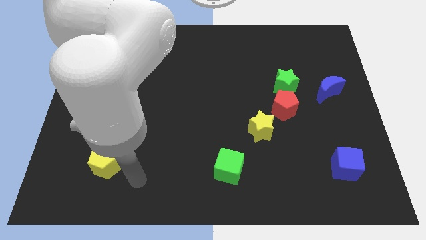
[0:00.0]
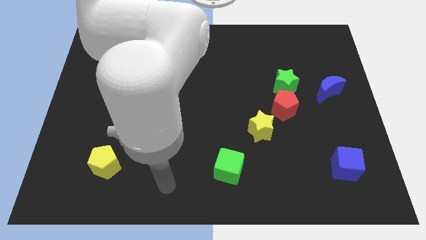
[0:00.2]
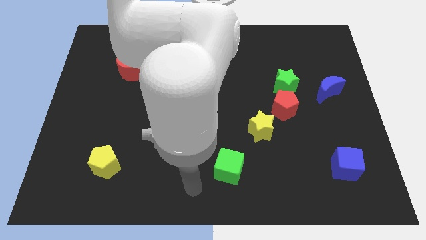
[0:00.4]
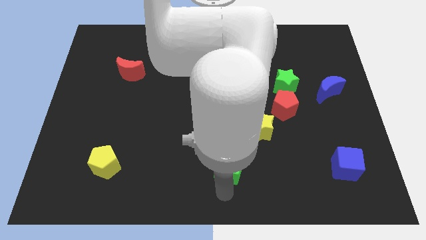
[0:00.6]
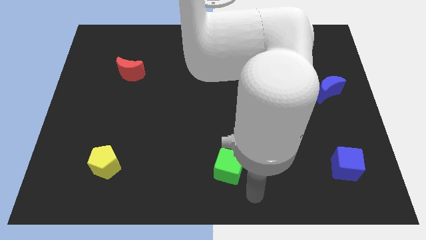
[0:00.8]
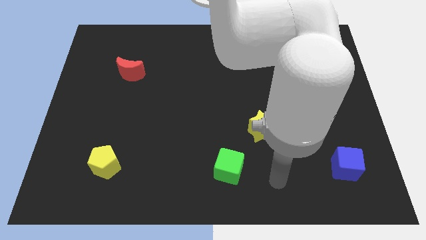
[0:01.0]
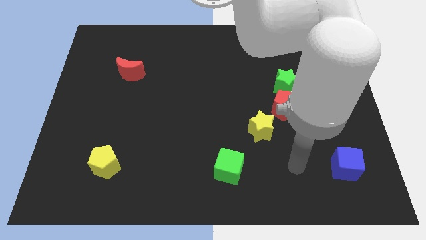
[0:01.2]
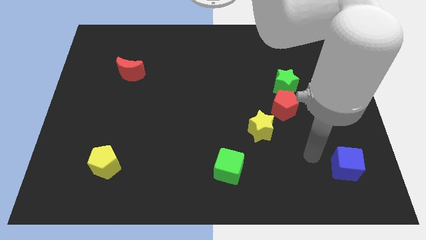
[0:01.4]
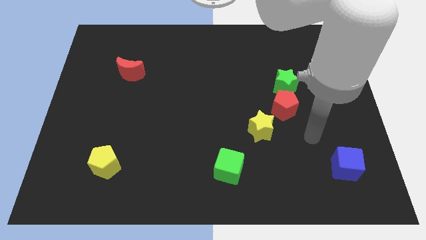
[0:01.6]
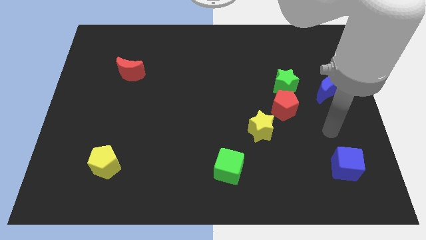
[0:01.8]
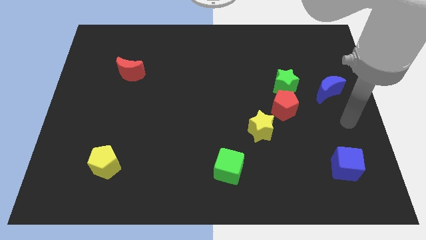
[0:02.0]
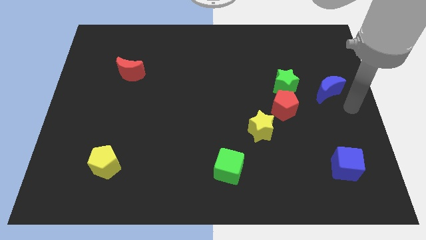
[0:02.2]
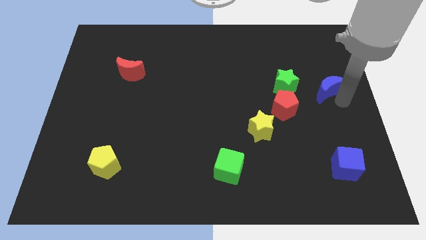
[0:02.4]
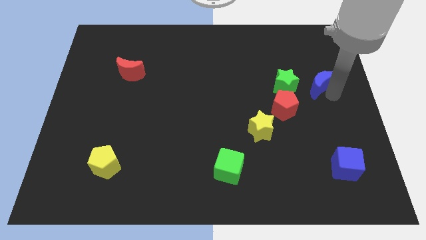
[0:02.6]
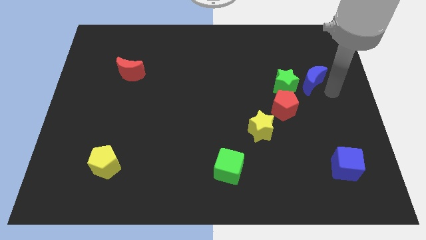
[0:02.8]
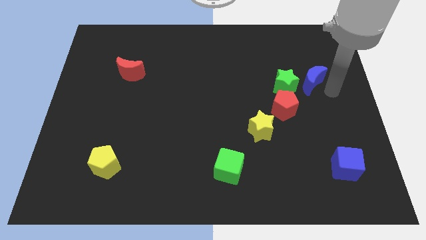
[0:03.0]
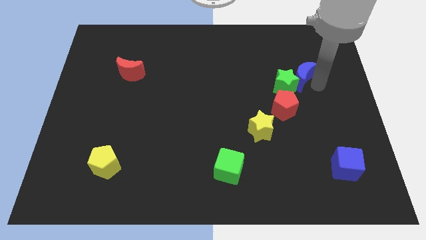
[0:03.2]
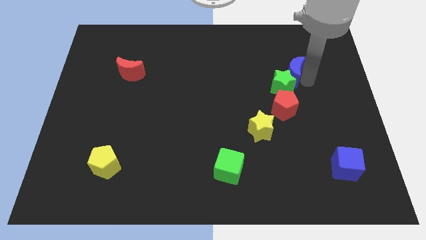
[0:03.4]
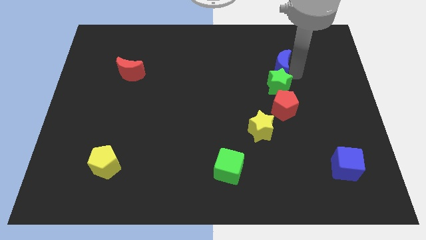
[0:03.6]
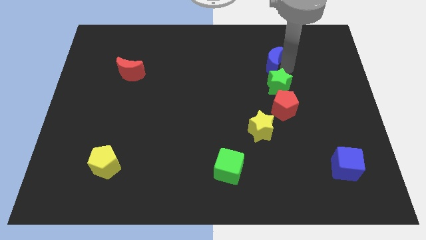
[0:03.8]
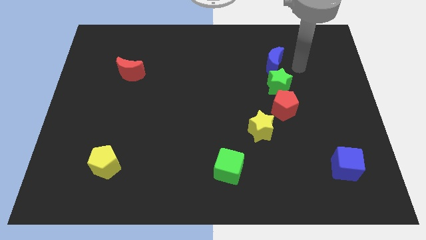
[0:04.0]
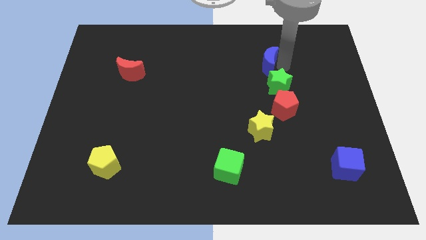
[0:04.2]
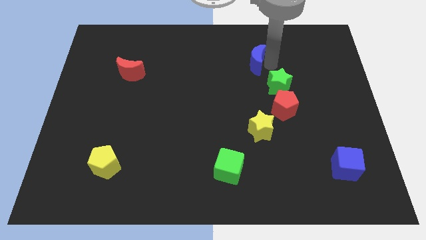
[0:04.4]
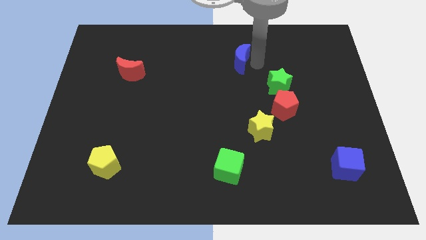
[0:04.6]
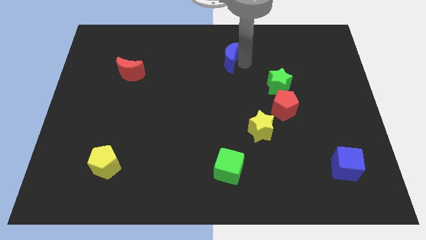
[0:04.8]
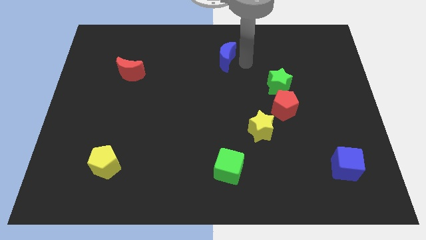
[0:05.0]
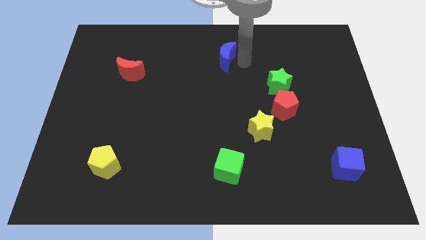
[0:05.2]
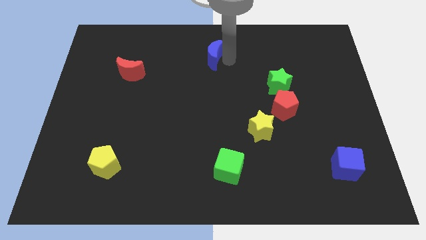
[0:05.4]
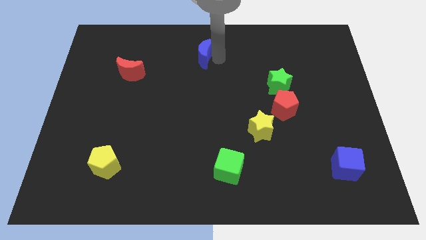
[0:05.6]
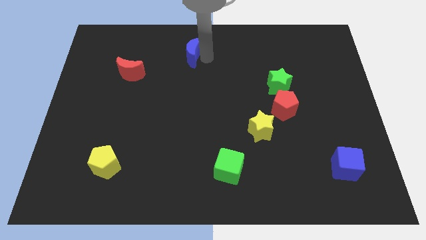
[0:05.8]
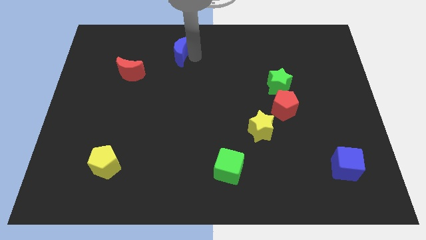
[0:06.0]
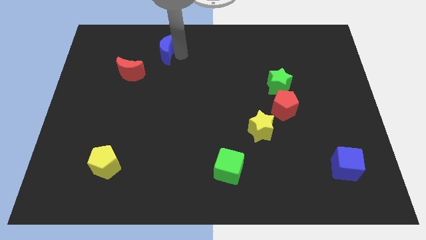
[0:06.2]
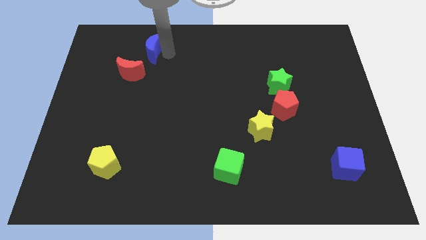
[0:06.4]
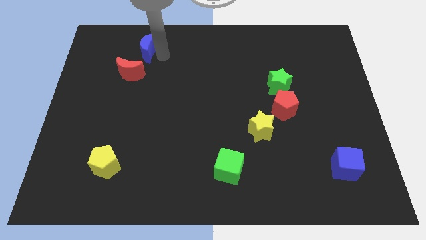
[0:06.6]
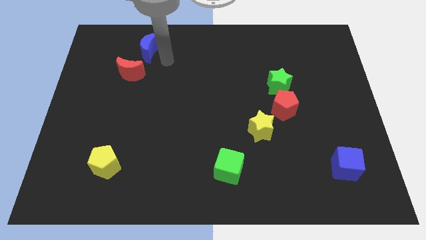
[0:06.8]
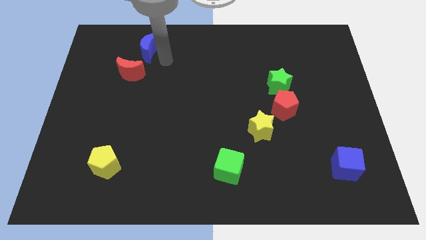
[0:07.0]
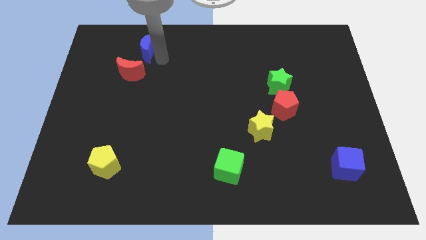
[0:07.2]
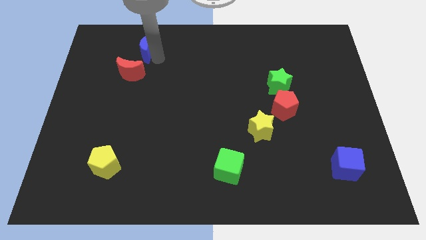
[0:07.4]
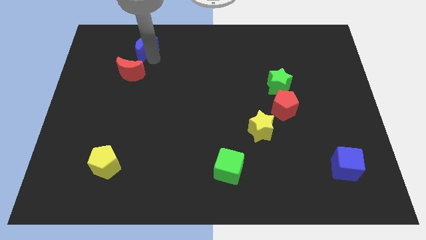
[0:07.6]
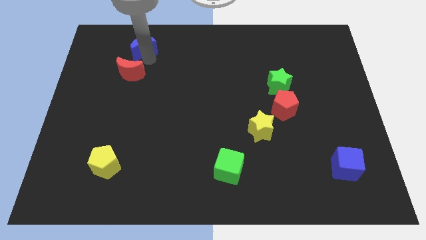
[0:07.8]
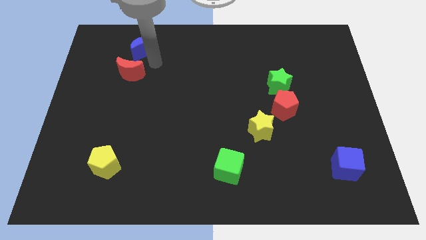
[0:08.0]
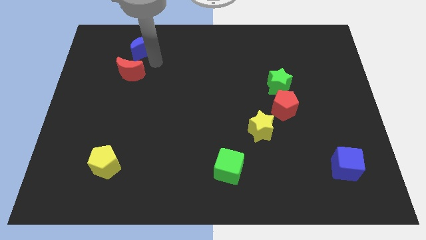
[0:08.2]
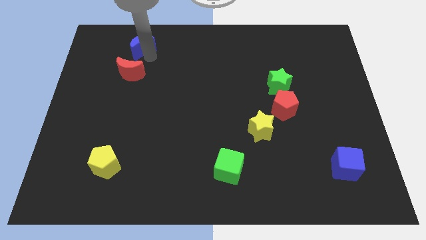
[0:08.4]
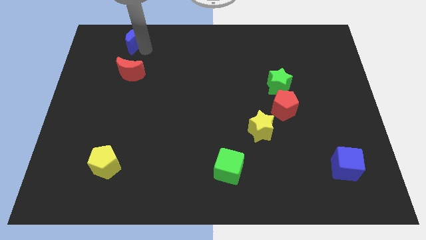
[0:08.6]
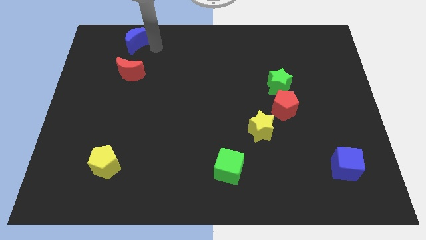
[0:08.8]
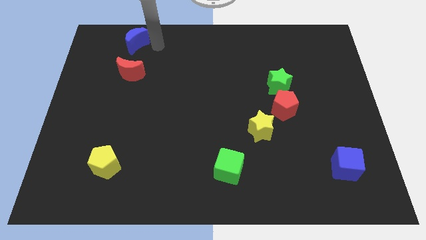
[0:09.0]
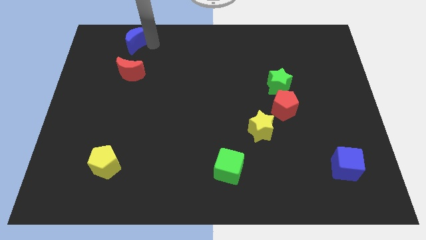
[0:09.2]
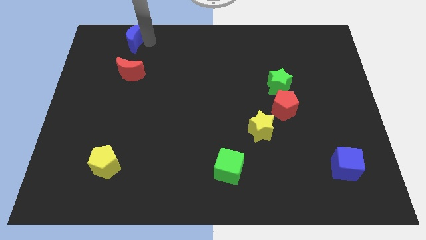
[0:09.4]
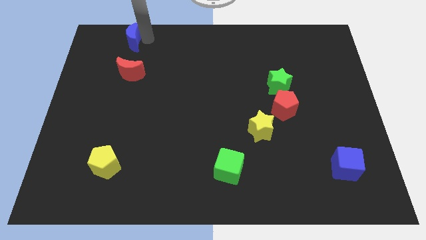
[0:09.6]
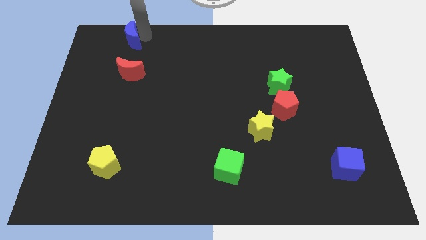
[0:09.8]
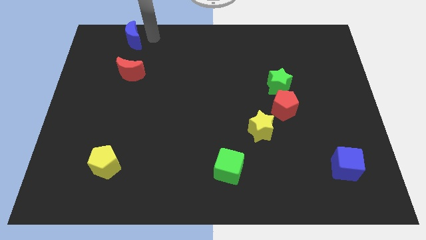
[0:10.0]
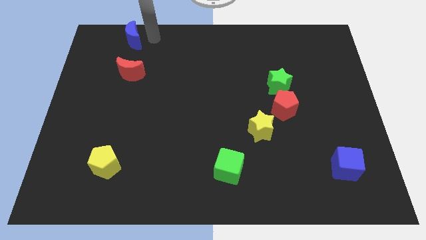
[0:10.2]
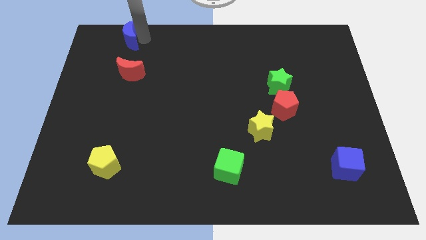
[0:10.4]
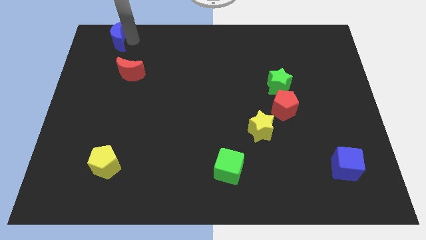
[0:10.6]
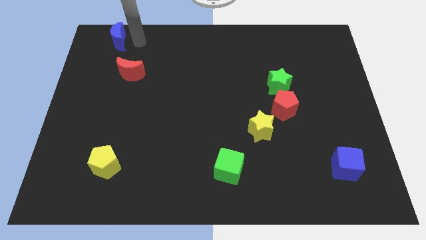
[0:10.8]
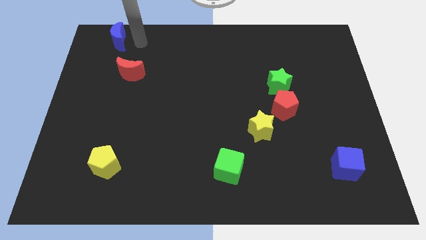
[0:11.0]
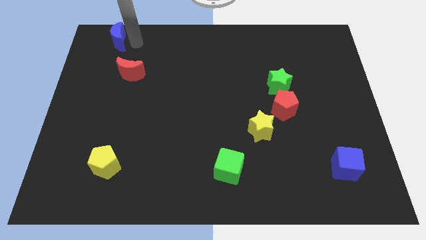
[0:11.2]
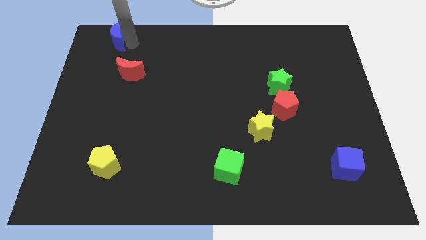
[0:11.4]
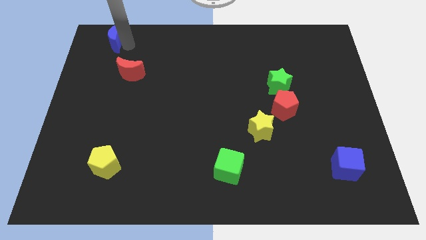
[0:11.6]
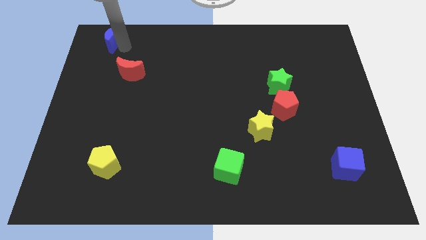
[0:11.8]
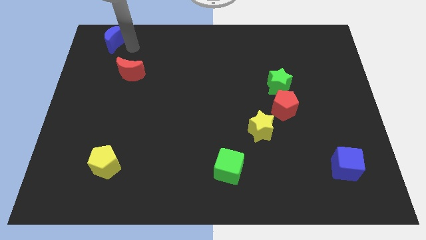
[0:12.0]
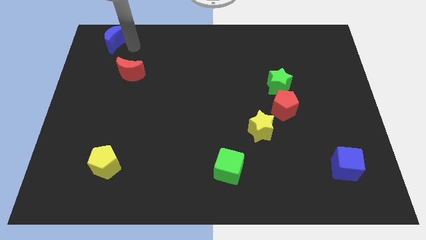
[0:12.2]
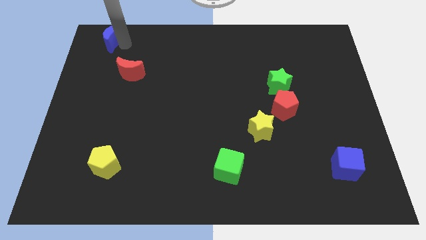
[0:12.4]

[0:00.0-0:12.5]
move the blue moon to the top left
